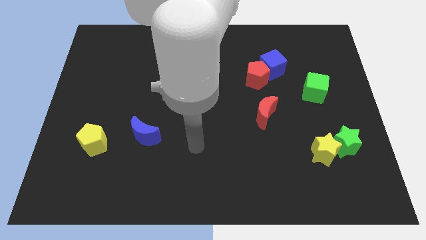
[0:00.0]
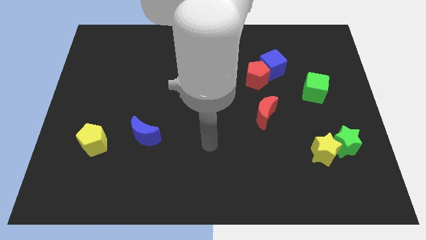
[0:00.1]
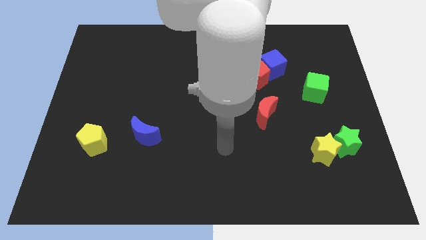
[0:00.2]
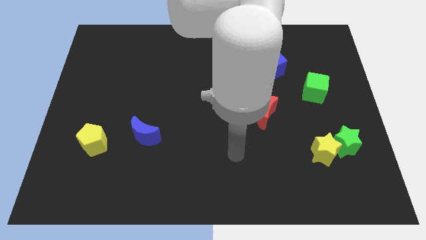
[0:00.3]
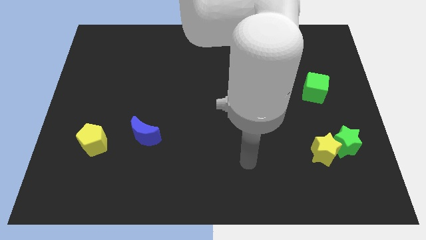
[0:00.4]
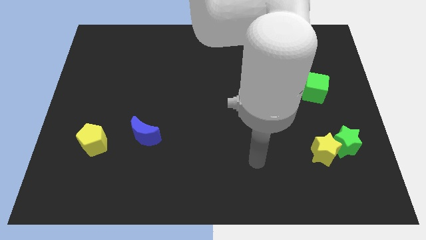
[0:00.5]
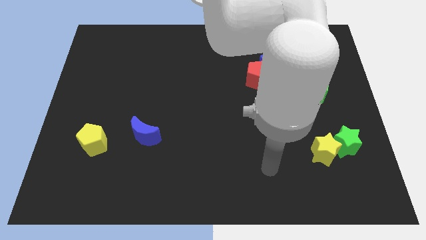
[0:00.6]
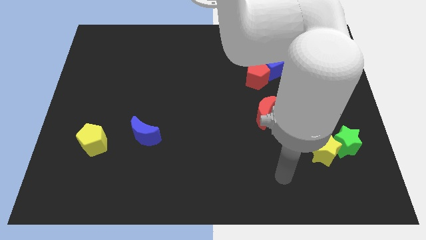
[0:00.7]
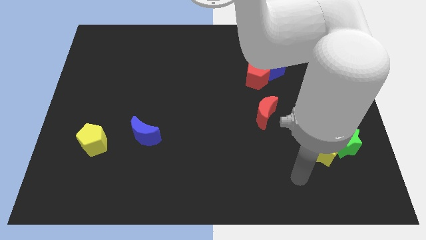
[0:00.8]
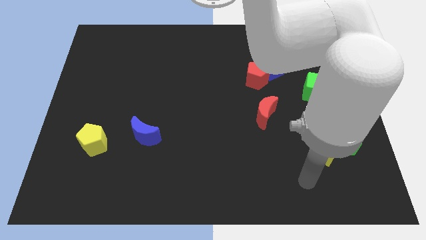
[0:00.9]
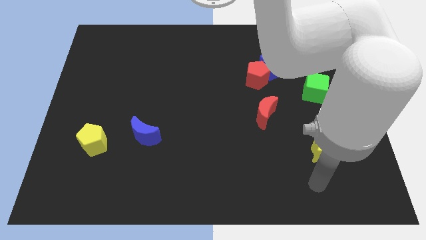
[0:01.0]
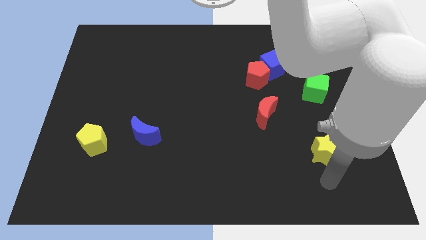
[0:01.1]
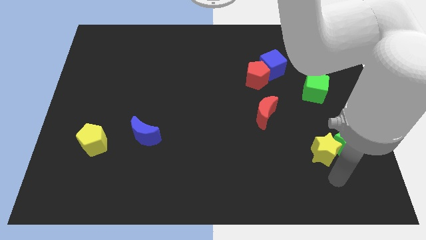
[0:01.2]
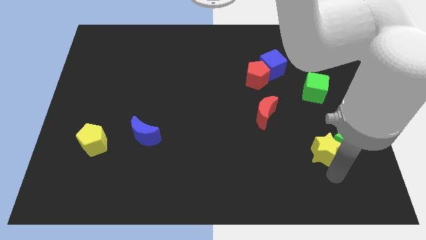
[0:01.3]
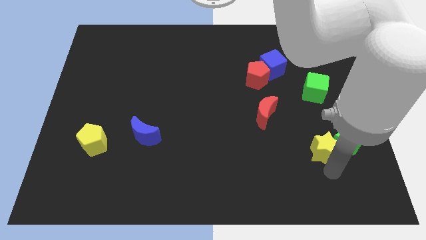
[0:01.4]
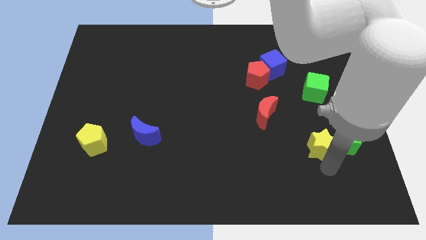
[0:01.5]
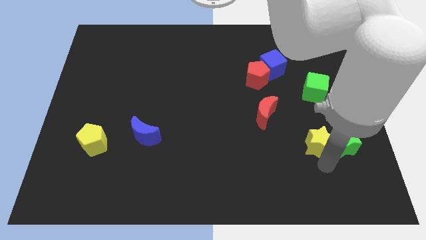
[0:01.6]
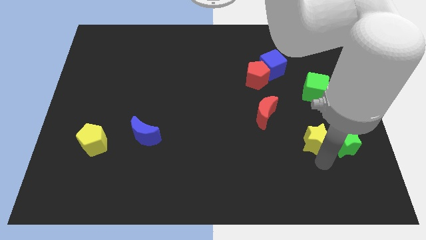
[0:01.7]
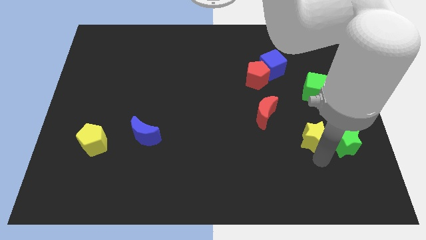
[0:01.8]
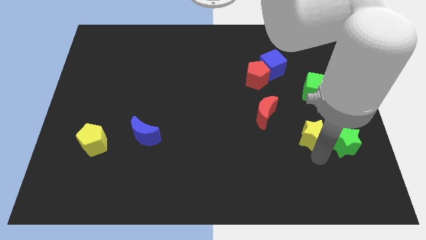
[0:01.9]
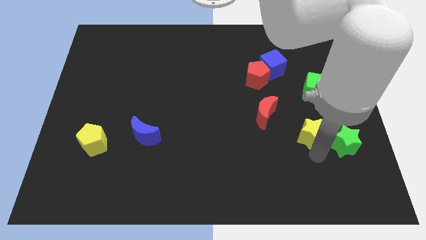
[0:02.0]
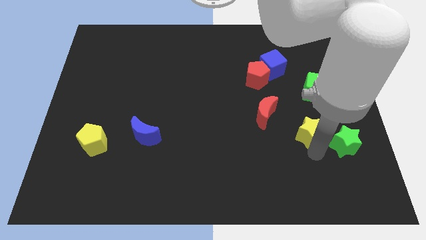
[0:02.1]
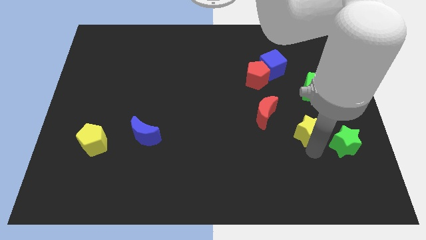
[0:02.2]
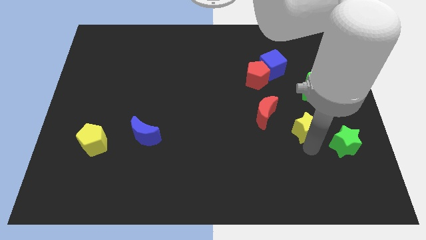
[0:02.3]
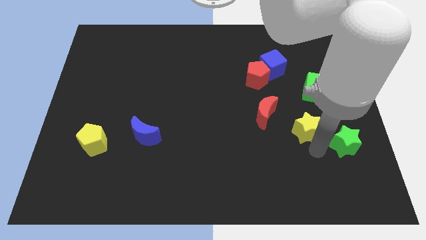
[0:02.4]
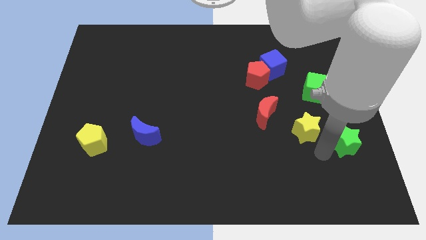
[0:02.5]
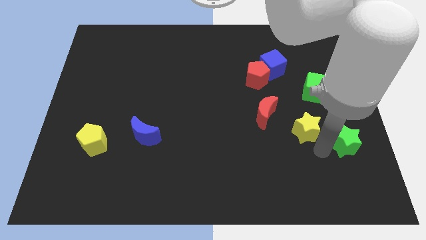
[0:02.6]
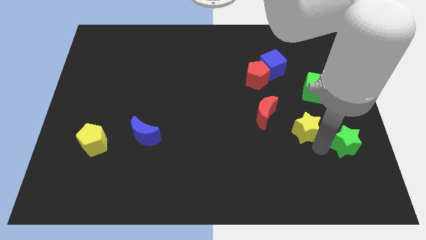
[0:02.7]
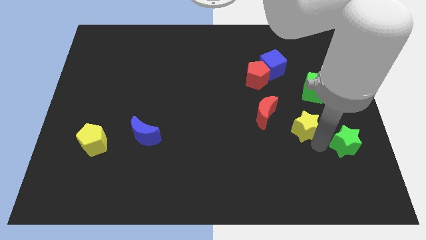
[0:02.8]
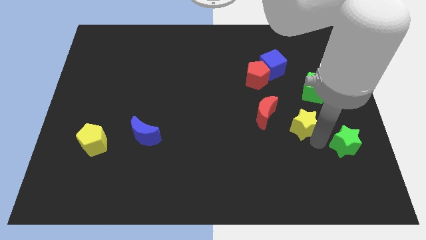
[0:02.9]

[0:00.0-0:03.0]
slide the yellow star slightly upwards and then to the left

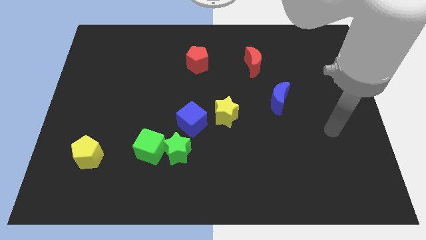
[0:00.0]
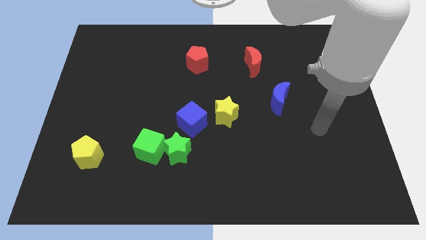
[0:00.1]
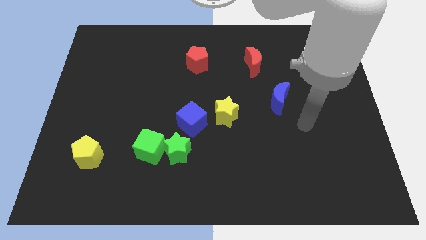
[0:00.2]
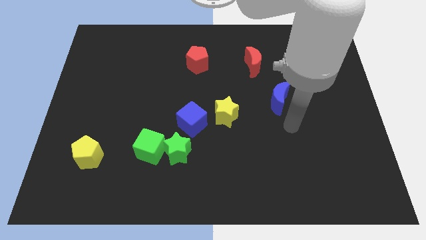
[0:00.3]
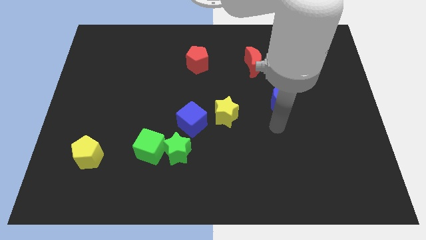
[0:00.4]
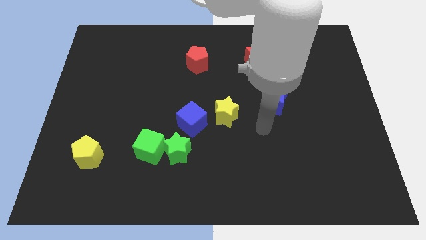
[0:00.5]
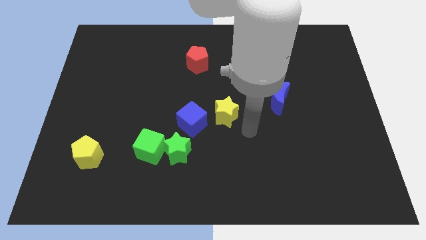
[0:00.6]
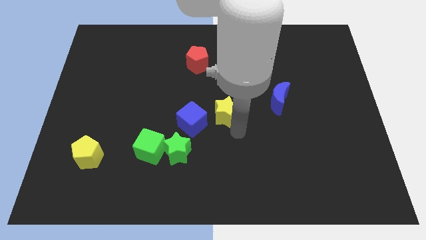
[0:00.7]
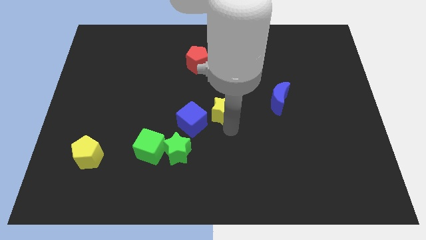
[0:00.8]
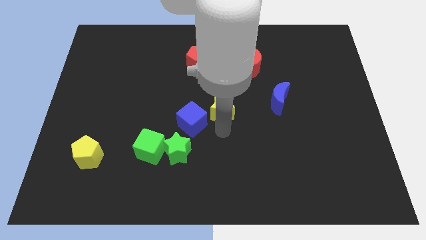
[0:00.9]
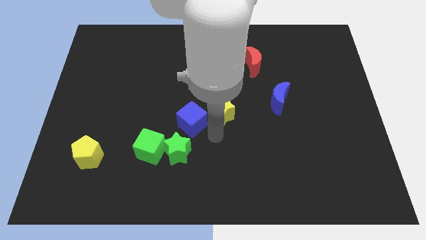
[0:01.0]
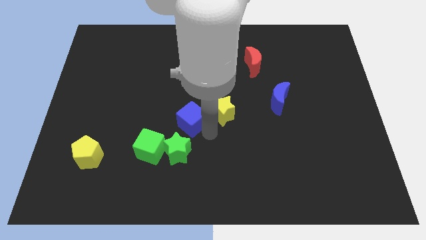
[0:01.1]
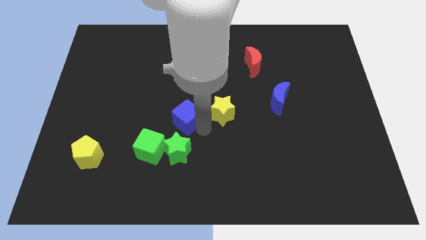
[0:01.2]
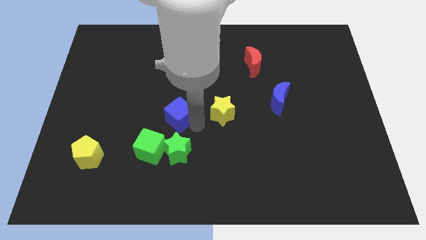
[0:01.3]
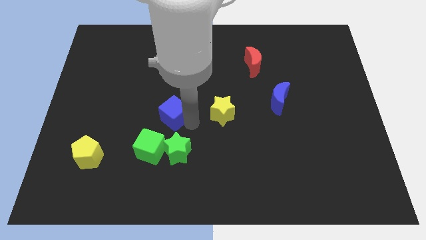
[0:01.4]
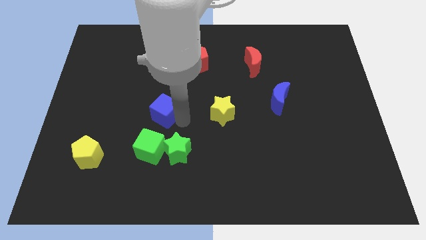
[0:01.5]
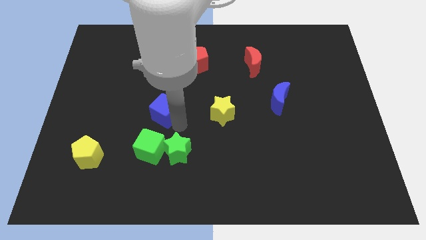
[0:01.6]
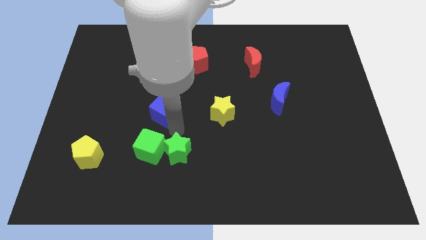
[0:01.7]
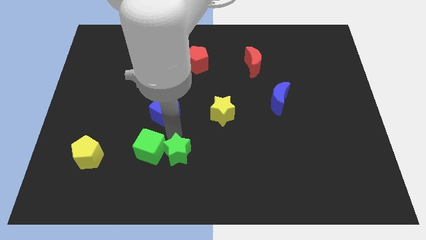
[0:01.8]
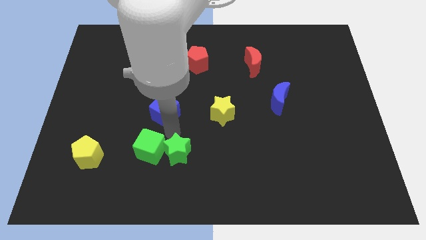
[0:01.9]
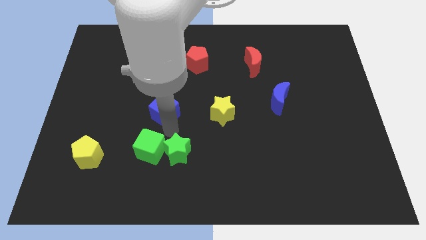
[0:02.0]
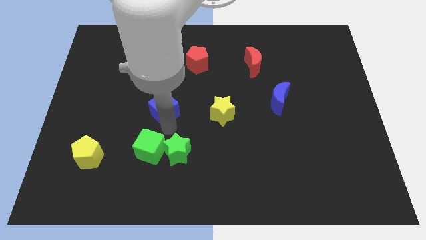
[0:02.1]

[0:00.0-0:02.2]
slide the blue cube up and to the left a bit

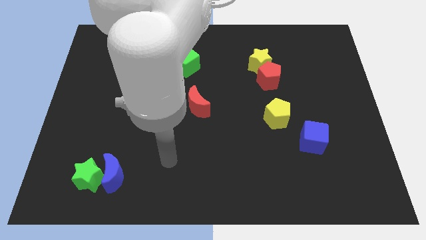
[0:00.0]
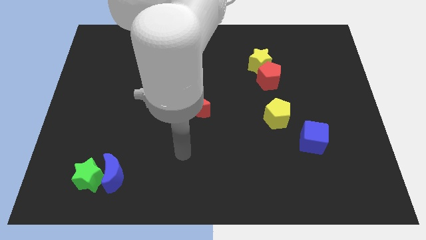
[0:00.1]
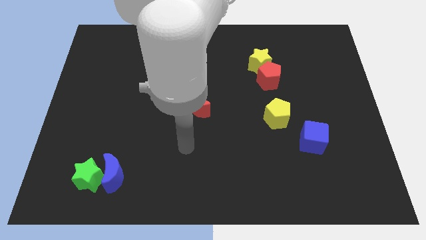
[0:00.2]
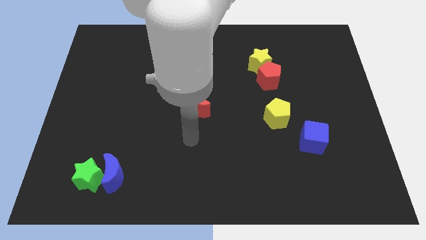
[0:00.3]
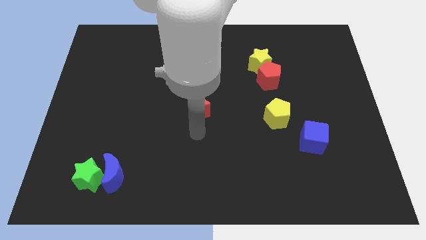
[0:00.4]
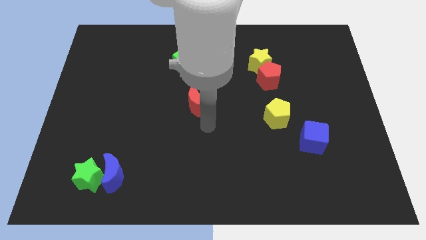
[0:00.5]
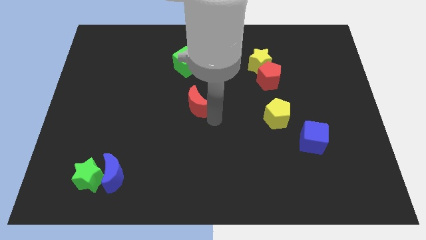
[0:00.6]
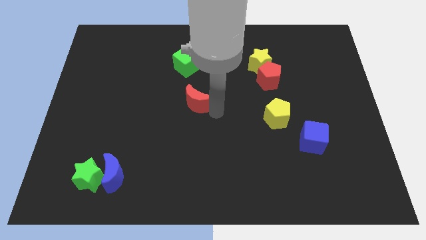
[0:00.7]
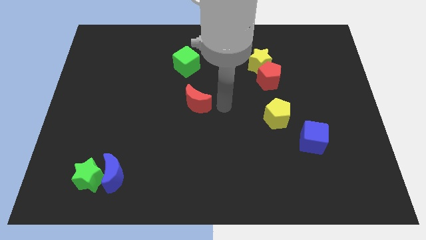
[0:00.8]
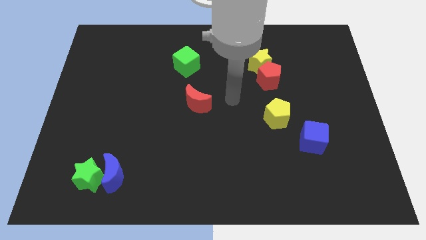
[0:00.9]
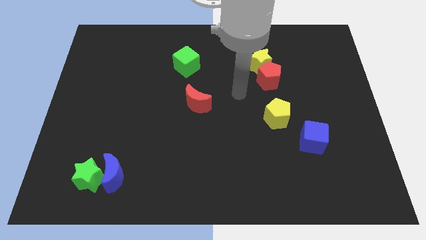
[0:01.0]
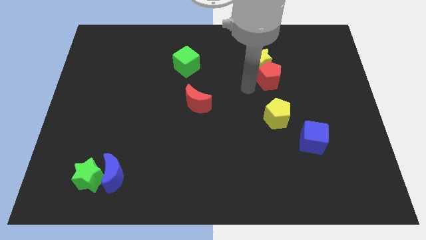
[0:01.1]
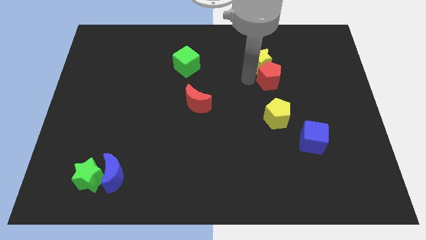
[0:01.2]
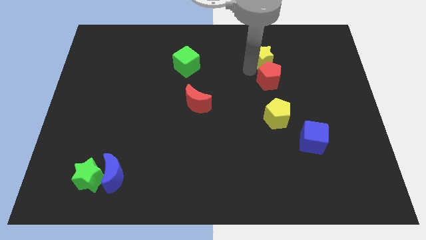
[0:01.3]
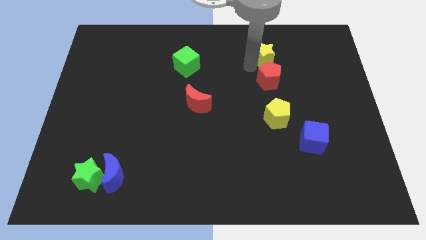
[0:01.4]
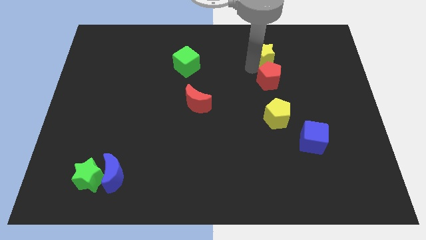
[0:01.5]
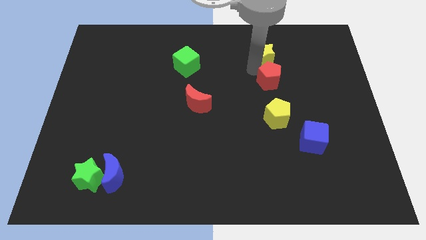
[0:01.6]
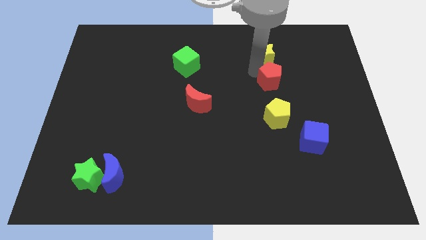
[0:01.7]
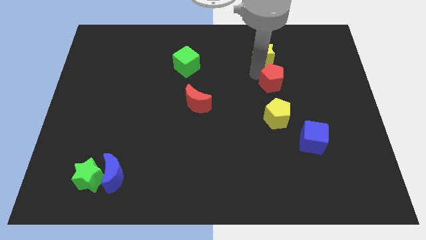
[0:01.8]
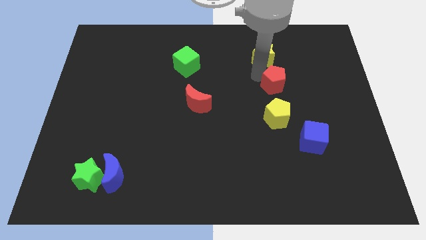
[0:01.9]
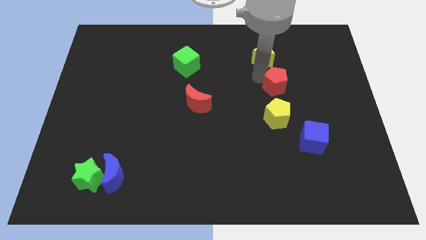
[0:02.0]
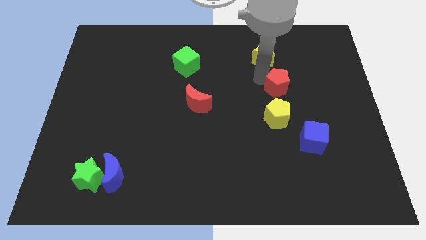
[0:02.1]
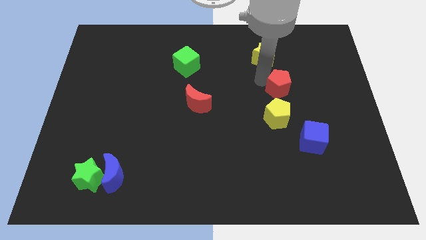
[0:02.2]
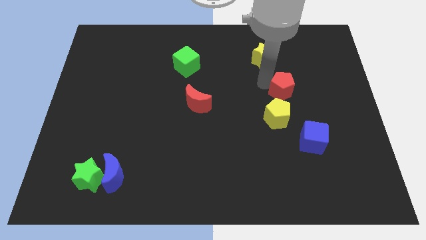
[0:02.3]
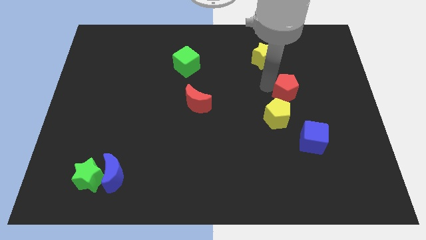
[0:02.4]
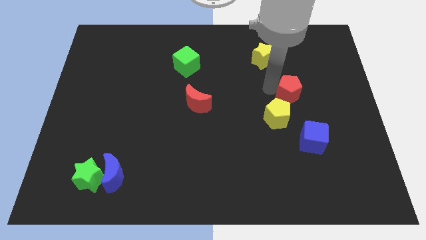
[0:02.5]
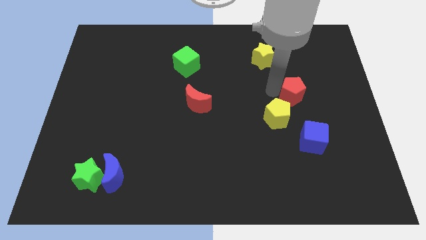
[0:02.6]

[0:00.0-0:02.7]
move the red pentagon a bit downwards and right

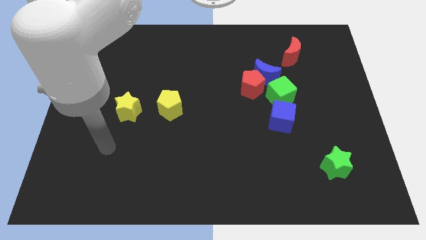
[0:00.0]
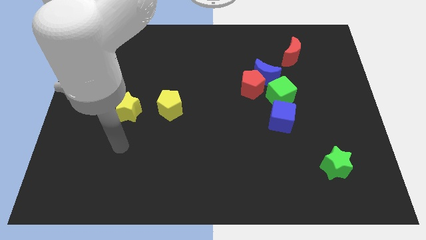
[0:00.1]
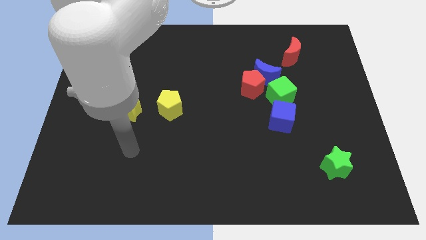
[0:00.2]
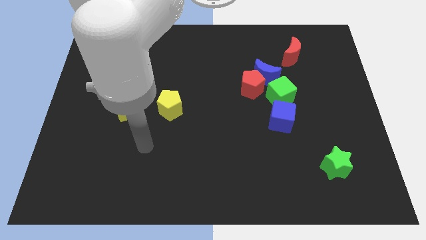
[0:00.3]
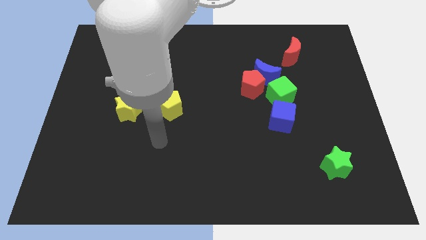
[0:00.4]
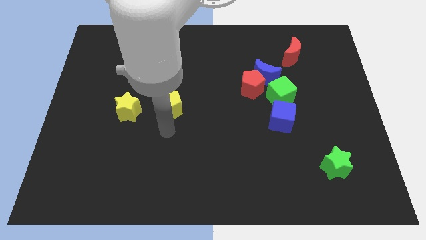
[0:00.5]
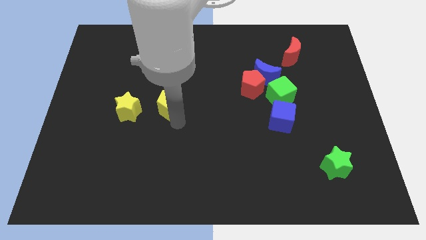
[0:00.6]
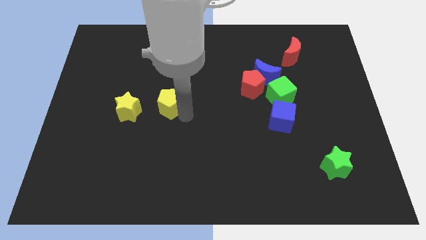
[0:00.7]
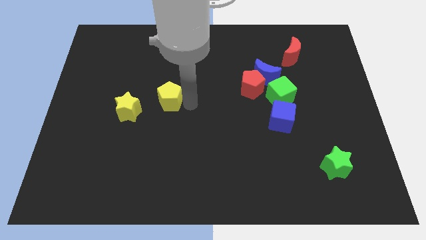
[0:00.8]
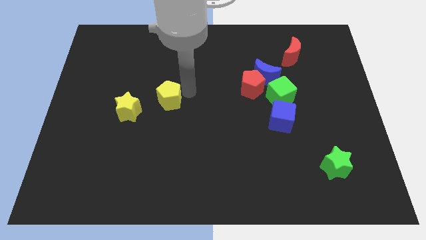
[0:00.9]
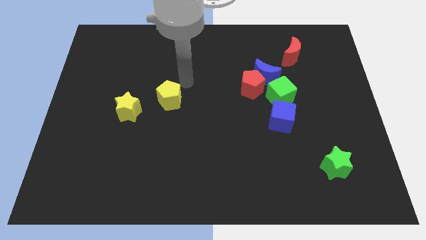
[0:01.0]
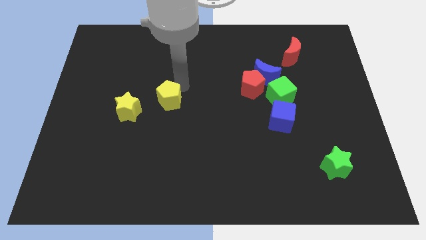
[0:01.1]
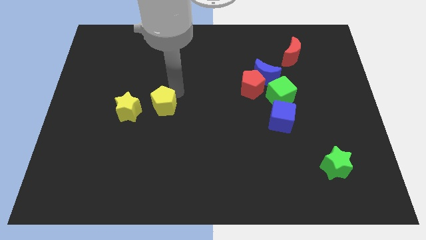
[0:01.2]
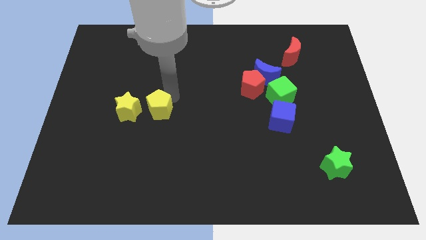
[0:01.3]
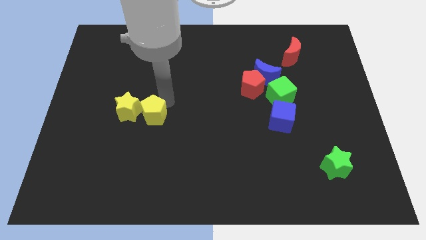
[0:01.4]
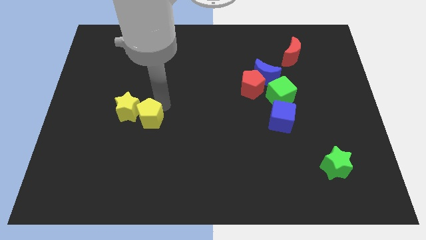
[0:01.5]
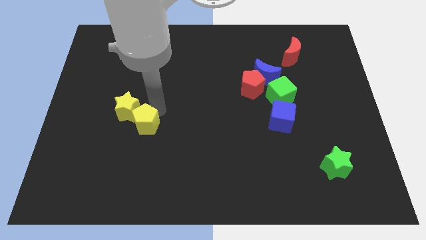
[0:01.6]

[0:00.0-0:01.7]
move the yellow pentagon a little bit downwards and to the left
